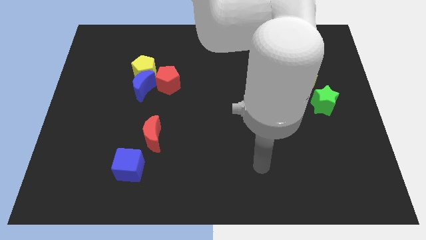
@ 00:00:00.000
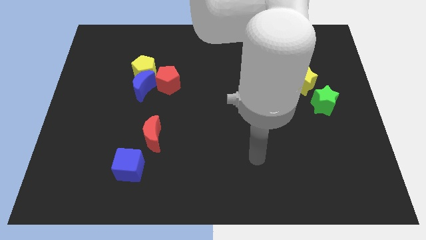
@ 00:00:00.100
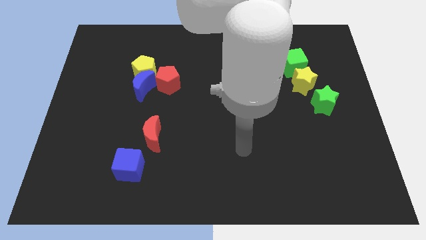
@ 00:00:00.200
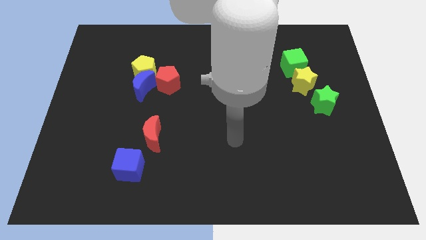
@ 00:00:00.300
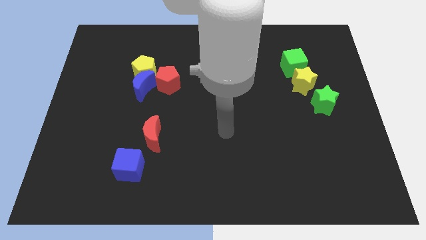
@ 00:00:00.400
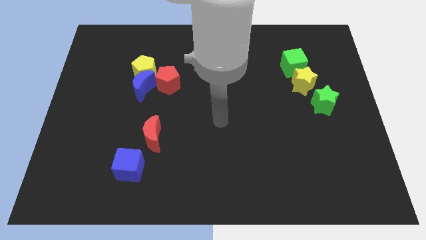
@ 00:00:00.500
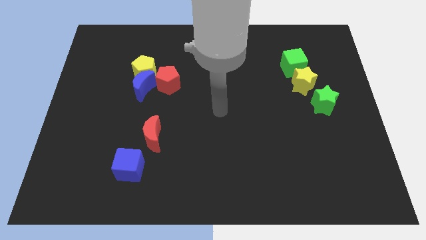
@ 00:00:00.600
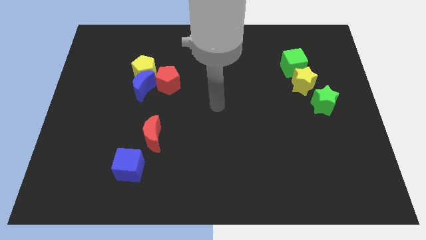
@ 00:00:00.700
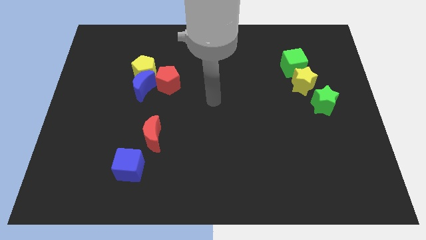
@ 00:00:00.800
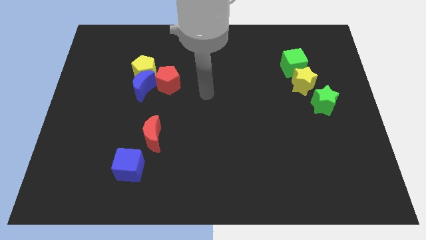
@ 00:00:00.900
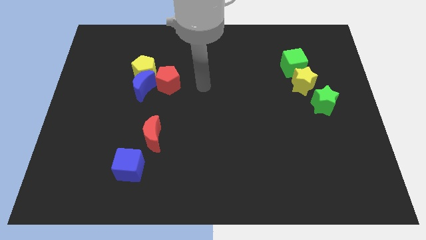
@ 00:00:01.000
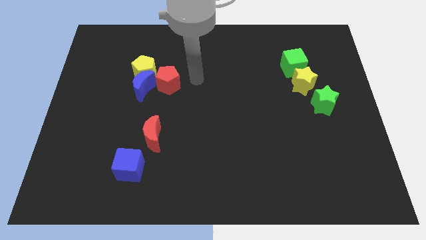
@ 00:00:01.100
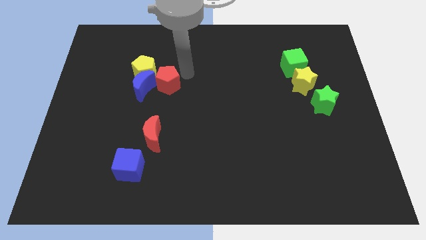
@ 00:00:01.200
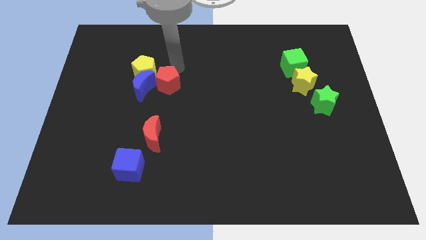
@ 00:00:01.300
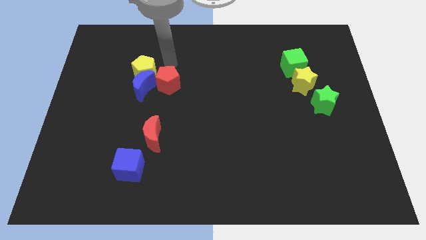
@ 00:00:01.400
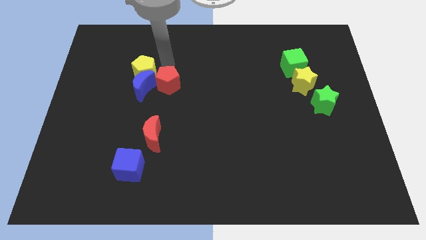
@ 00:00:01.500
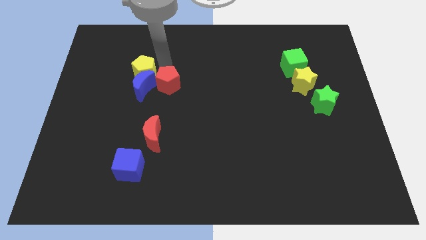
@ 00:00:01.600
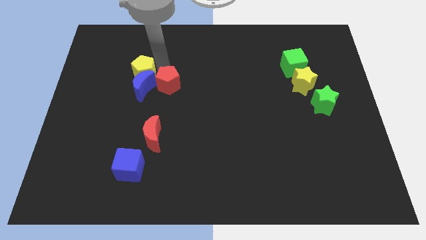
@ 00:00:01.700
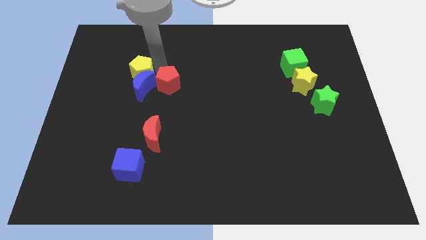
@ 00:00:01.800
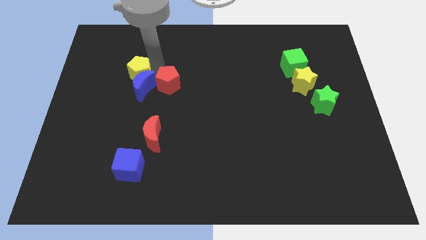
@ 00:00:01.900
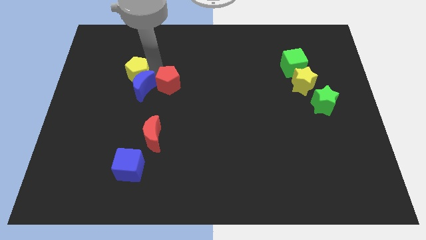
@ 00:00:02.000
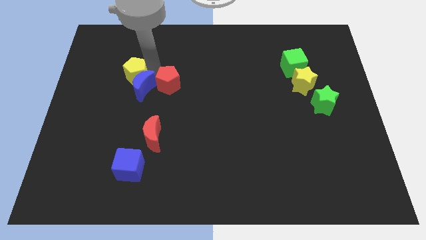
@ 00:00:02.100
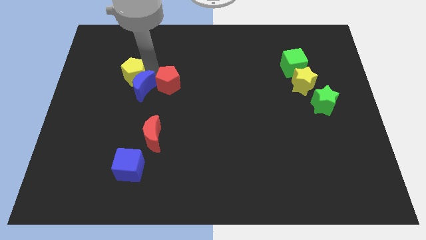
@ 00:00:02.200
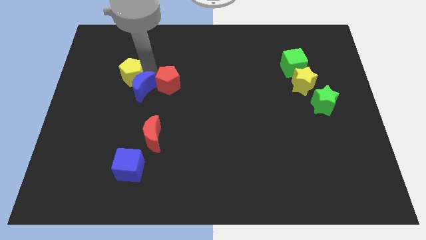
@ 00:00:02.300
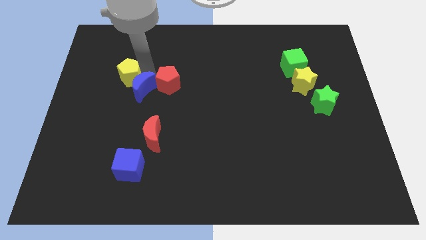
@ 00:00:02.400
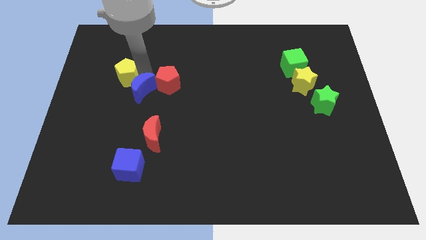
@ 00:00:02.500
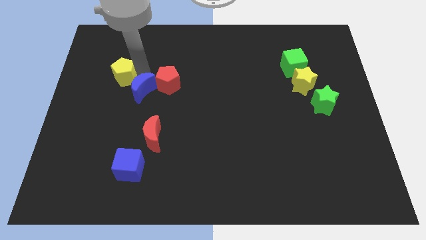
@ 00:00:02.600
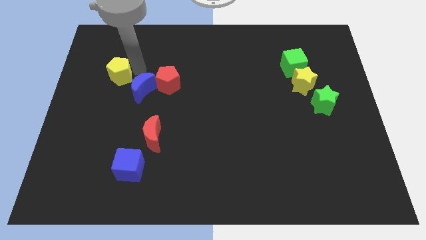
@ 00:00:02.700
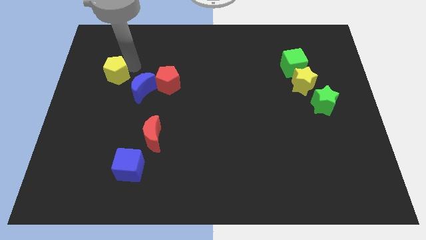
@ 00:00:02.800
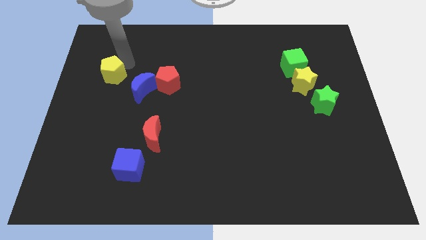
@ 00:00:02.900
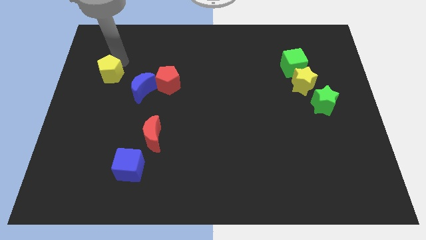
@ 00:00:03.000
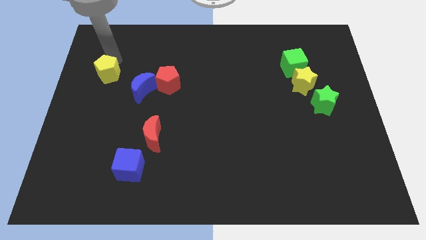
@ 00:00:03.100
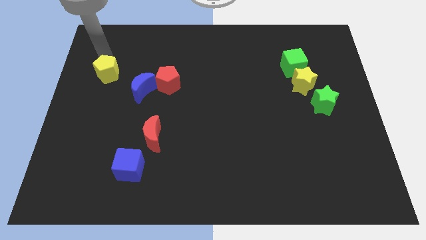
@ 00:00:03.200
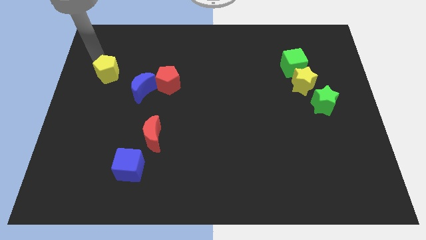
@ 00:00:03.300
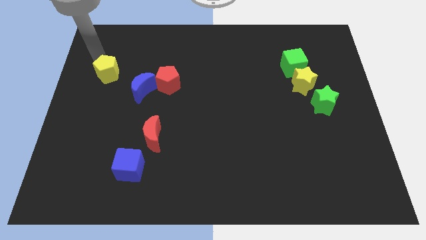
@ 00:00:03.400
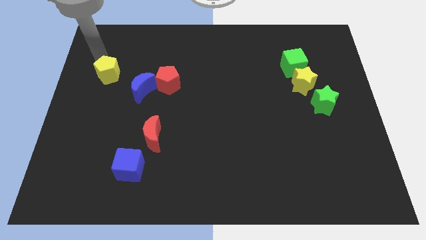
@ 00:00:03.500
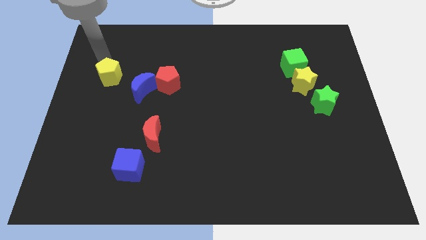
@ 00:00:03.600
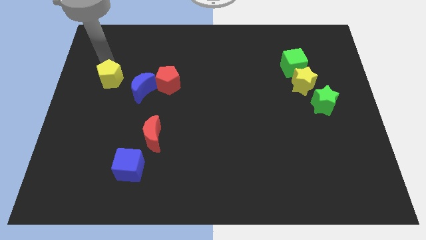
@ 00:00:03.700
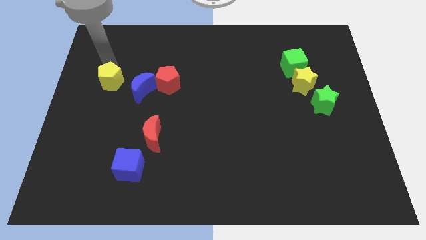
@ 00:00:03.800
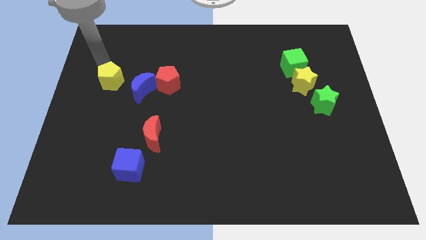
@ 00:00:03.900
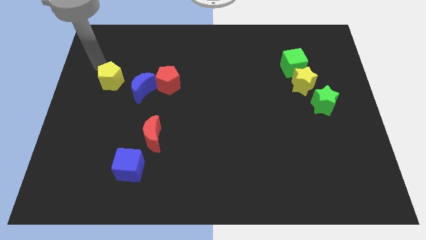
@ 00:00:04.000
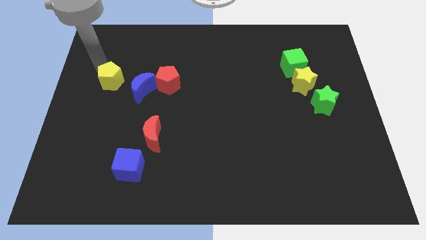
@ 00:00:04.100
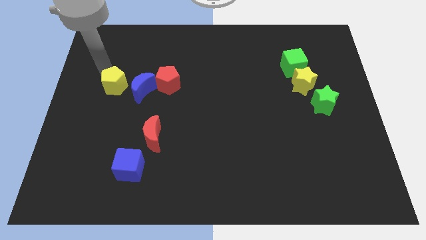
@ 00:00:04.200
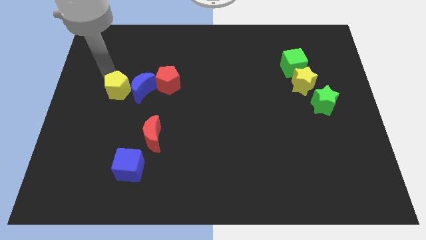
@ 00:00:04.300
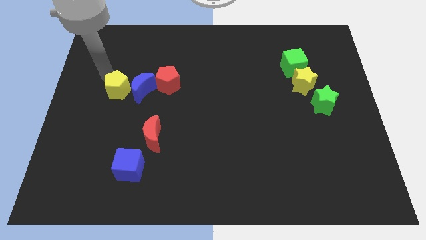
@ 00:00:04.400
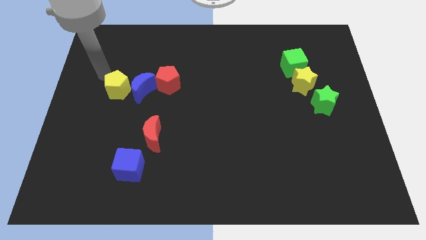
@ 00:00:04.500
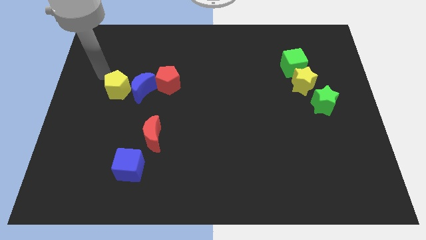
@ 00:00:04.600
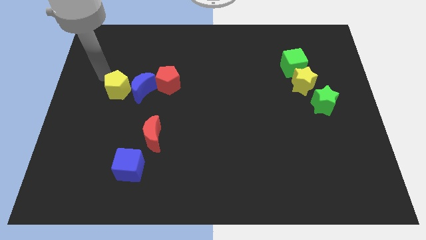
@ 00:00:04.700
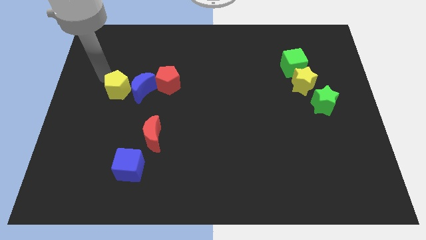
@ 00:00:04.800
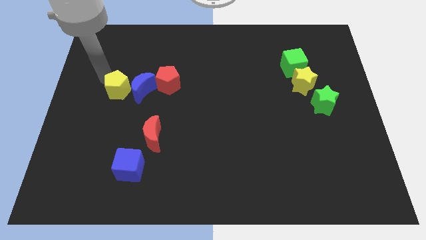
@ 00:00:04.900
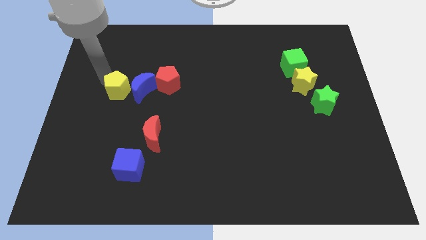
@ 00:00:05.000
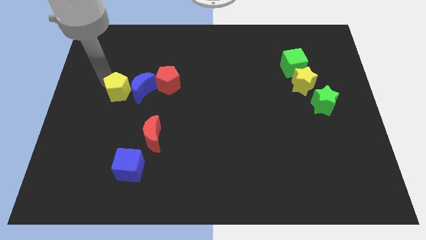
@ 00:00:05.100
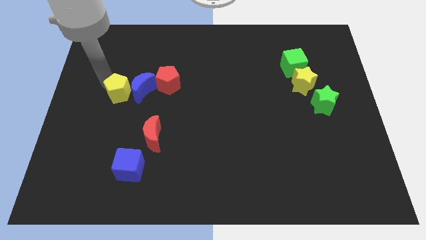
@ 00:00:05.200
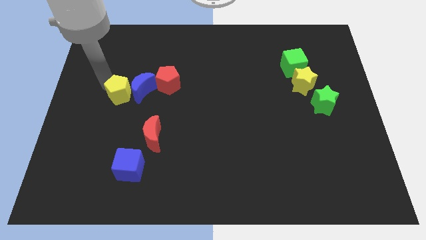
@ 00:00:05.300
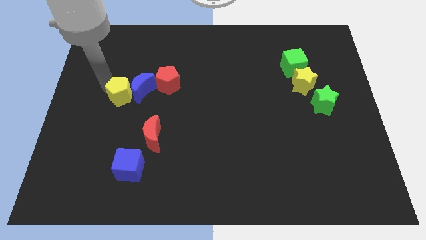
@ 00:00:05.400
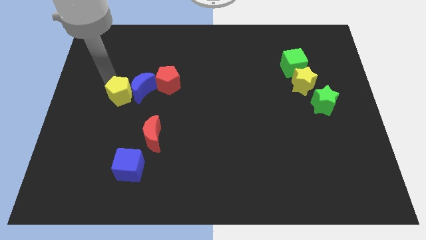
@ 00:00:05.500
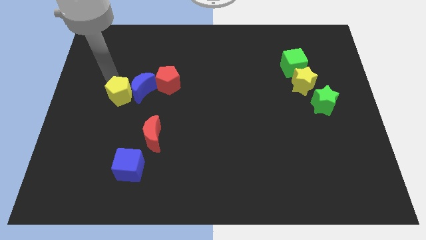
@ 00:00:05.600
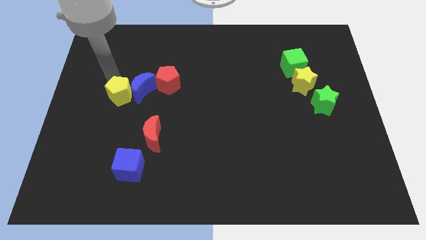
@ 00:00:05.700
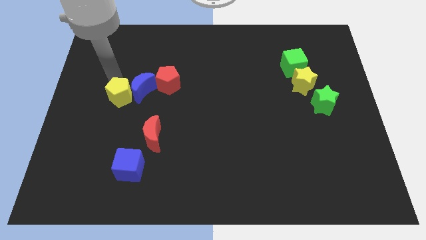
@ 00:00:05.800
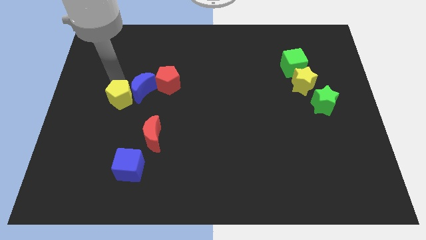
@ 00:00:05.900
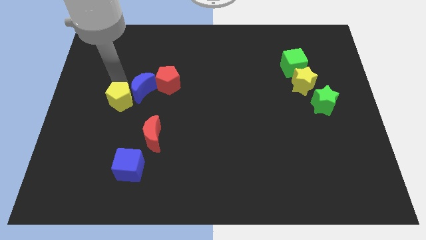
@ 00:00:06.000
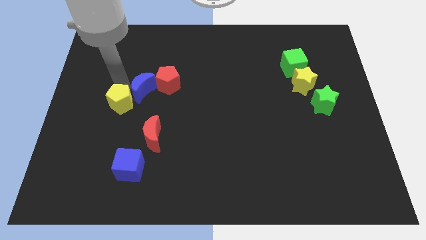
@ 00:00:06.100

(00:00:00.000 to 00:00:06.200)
slide the yellow pentagon to the bottom side of the blue moon

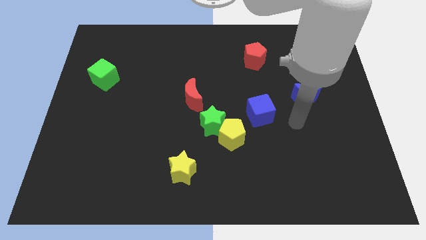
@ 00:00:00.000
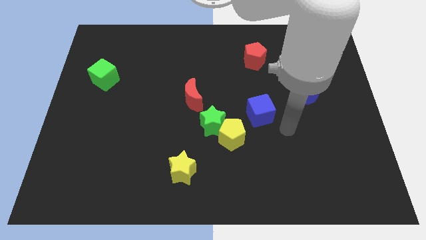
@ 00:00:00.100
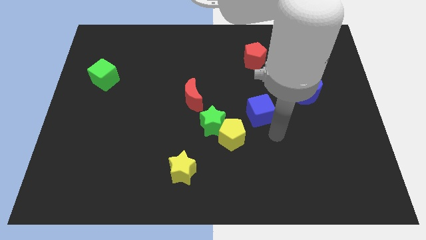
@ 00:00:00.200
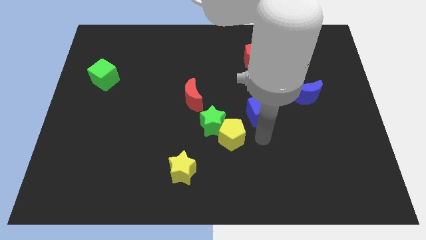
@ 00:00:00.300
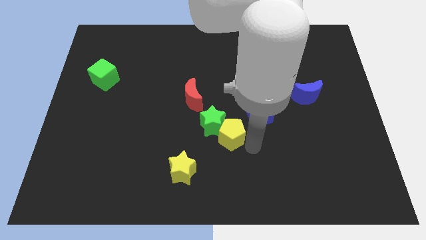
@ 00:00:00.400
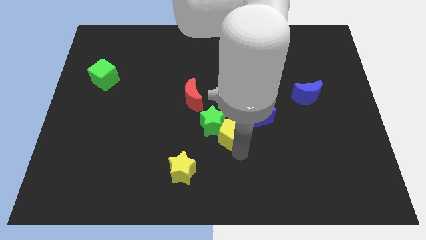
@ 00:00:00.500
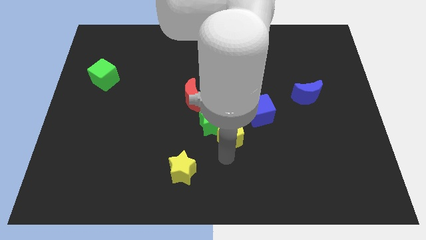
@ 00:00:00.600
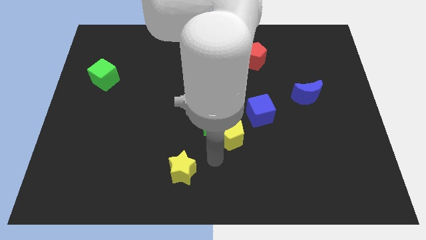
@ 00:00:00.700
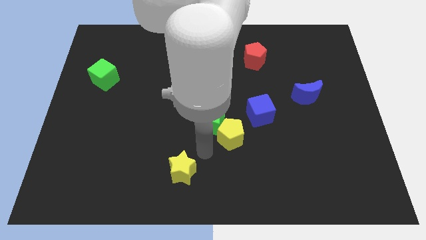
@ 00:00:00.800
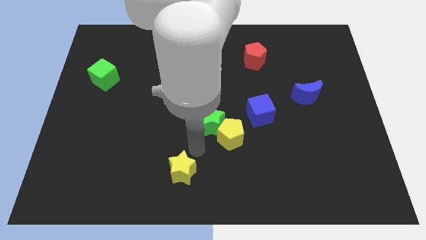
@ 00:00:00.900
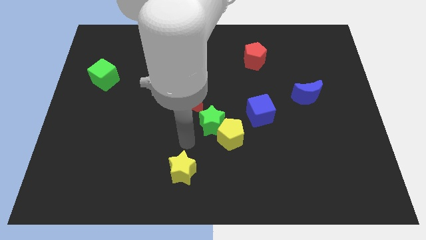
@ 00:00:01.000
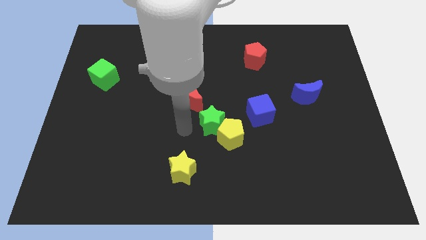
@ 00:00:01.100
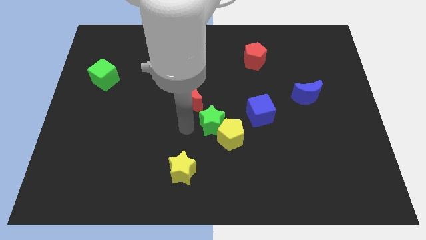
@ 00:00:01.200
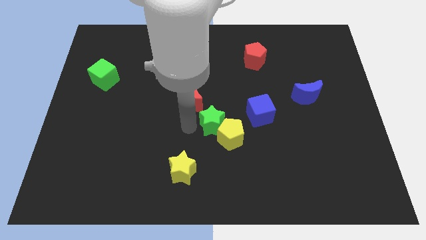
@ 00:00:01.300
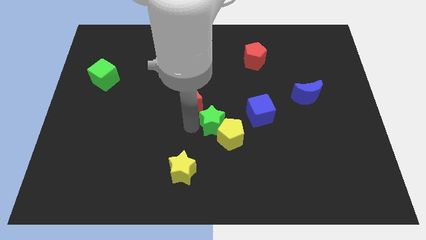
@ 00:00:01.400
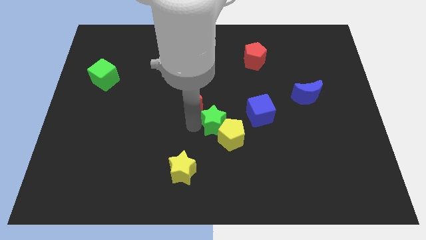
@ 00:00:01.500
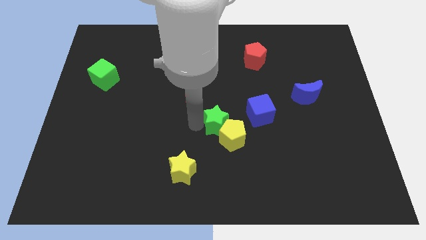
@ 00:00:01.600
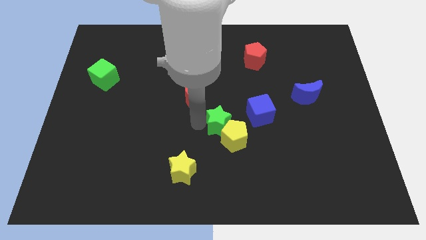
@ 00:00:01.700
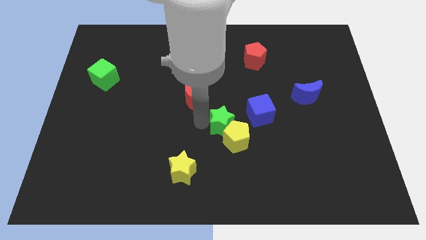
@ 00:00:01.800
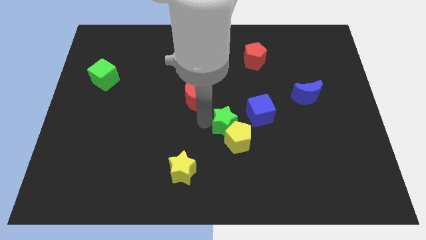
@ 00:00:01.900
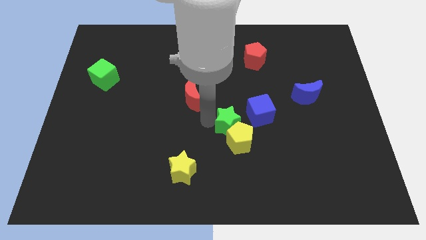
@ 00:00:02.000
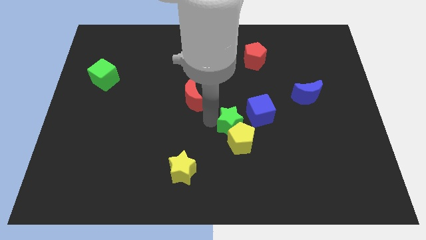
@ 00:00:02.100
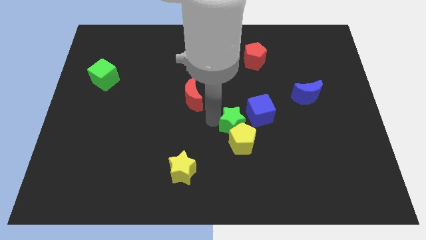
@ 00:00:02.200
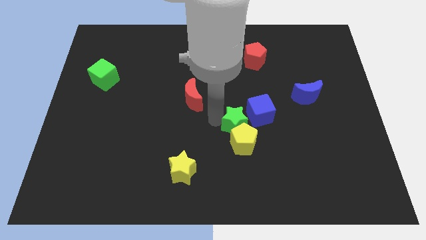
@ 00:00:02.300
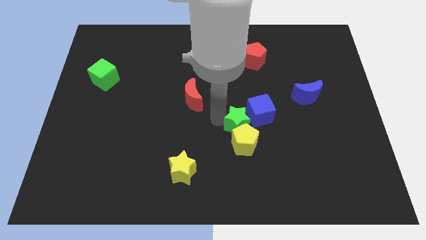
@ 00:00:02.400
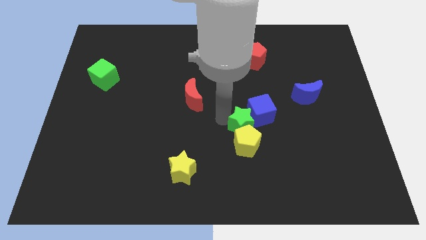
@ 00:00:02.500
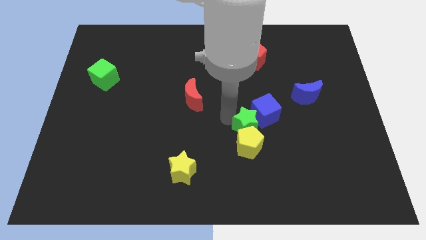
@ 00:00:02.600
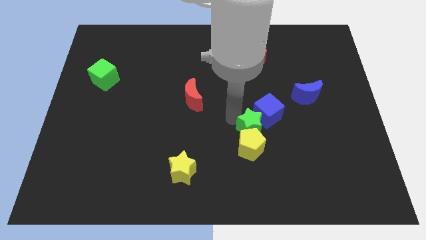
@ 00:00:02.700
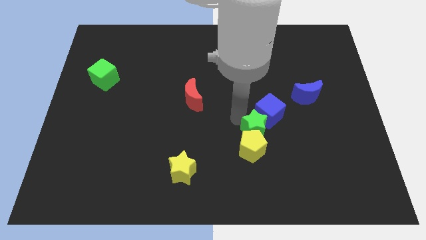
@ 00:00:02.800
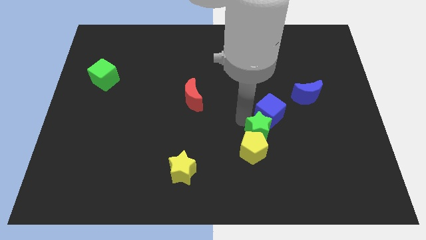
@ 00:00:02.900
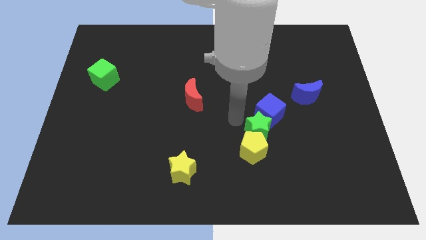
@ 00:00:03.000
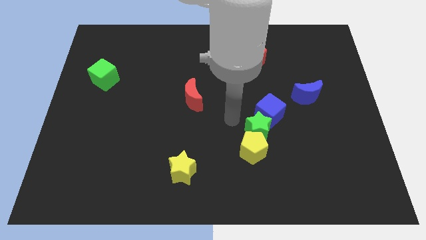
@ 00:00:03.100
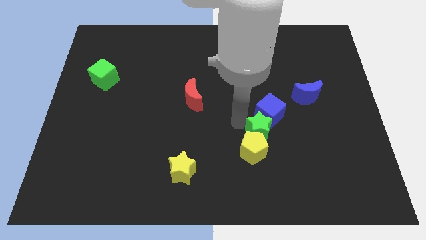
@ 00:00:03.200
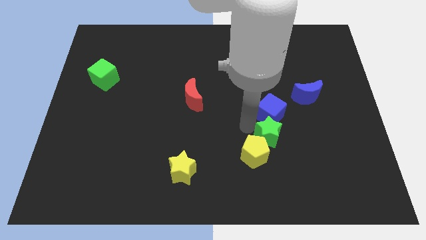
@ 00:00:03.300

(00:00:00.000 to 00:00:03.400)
slide the green star to the right of the yellow pentagon
